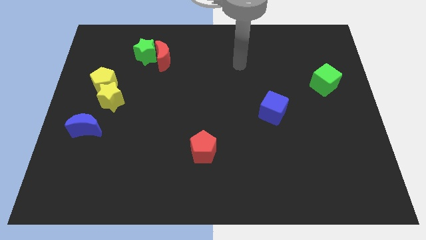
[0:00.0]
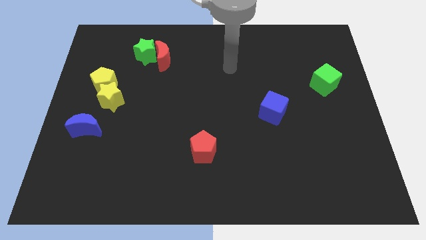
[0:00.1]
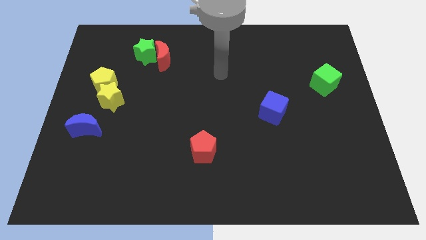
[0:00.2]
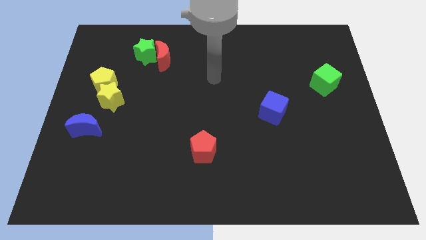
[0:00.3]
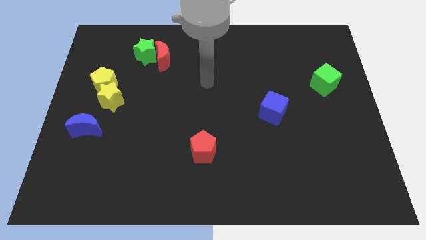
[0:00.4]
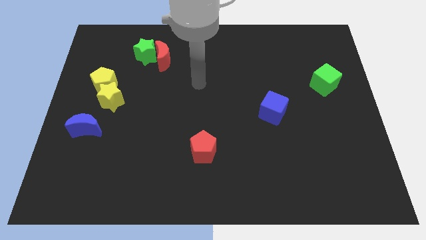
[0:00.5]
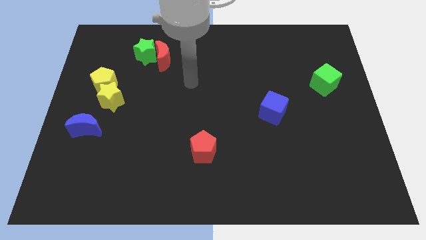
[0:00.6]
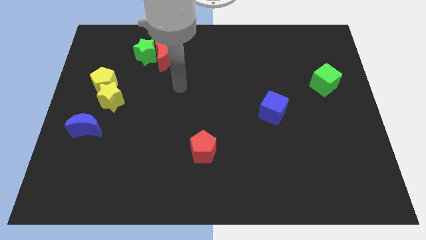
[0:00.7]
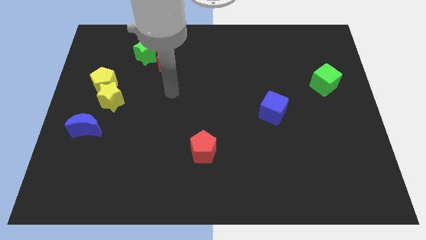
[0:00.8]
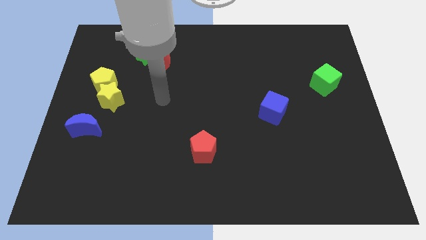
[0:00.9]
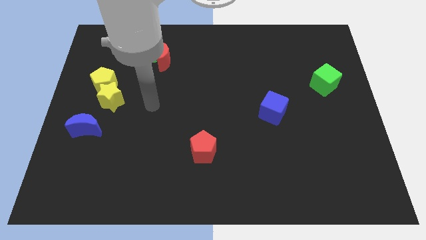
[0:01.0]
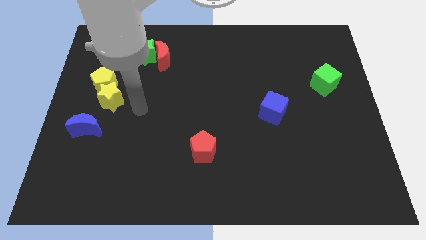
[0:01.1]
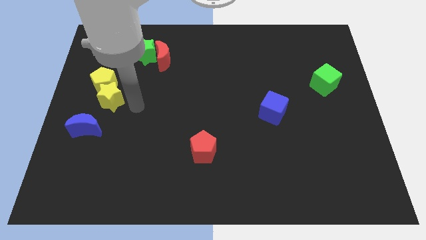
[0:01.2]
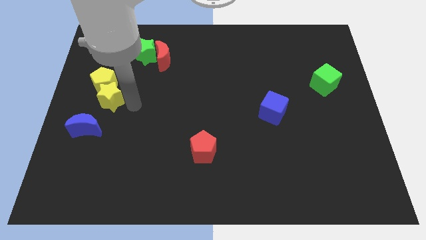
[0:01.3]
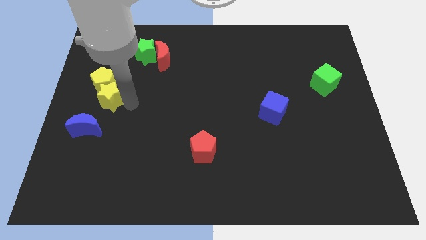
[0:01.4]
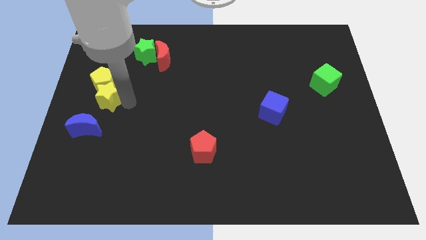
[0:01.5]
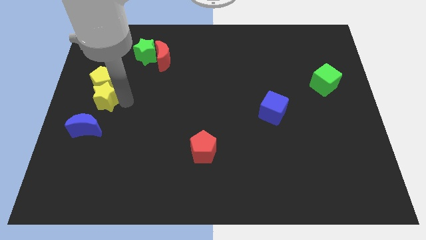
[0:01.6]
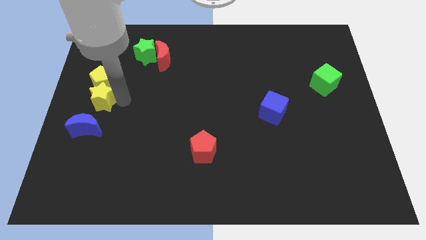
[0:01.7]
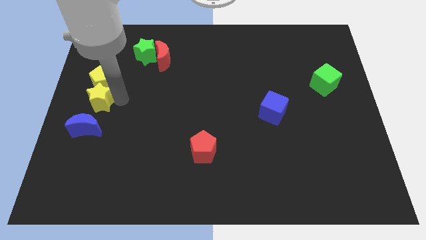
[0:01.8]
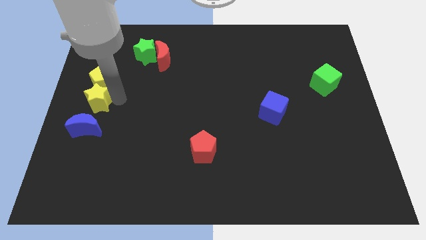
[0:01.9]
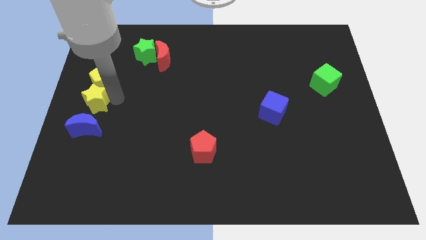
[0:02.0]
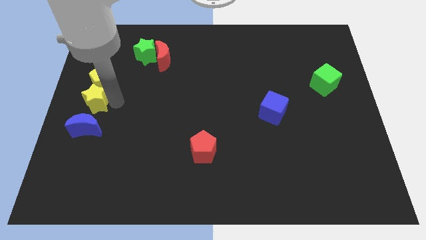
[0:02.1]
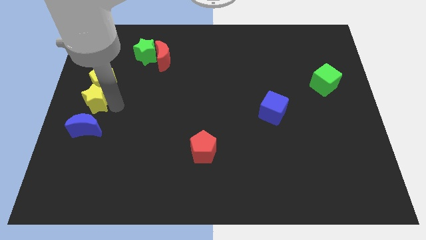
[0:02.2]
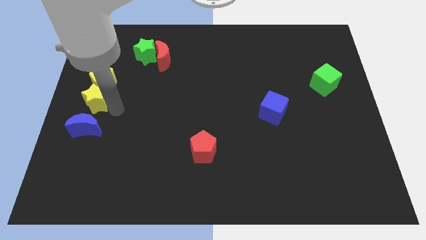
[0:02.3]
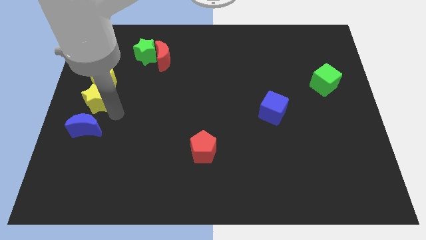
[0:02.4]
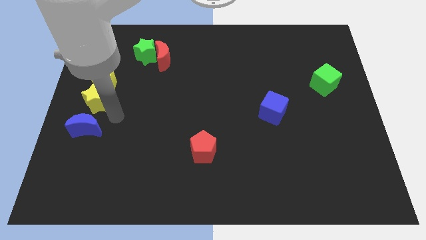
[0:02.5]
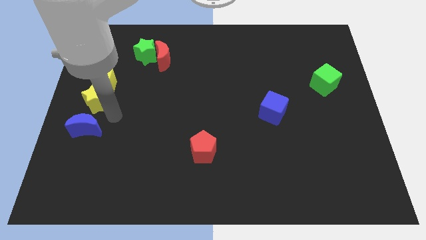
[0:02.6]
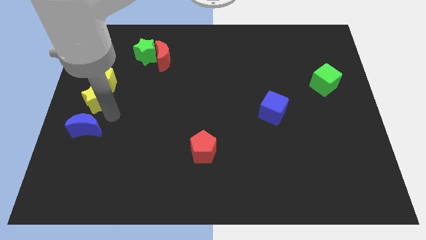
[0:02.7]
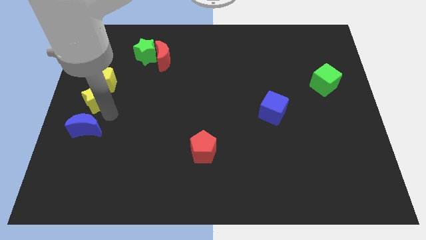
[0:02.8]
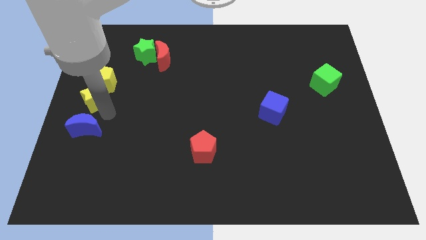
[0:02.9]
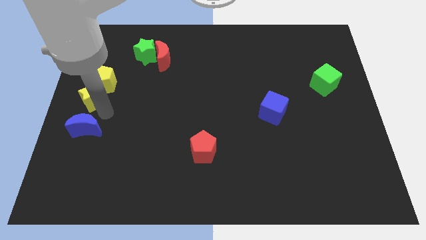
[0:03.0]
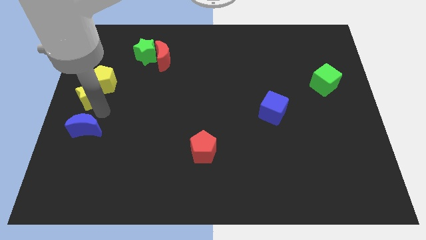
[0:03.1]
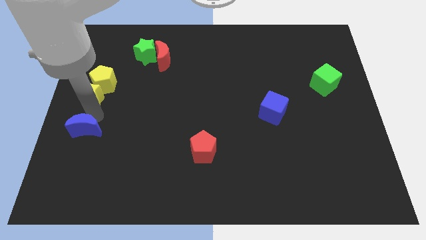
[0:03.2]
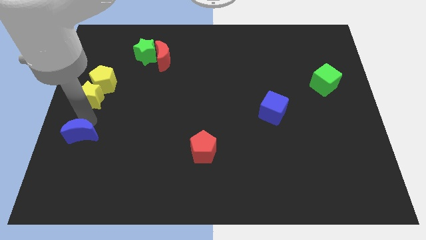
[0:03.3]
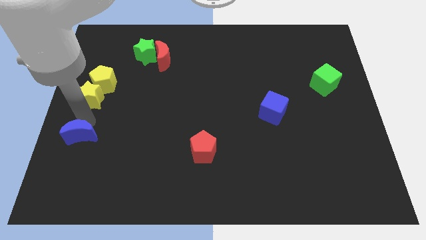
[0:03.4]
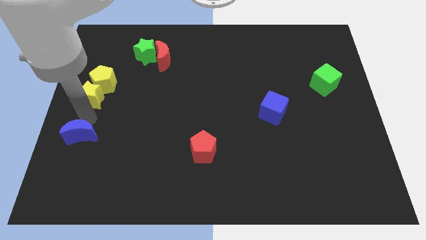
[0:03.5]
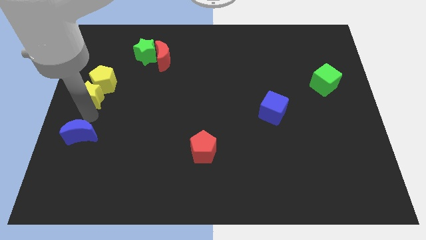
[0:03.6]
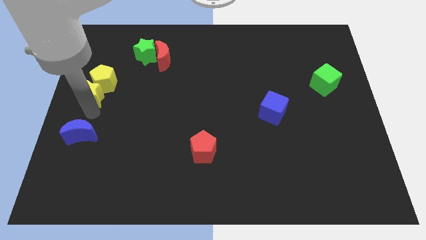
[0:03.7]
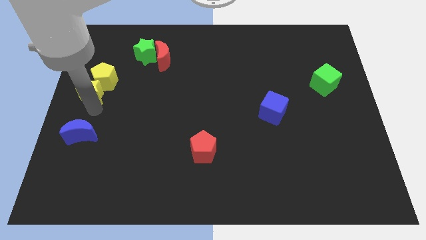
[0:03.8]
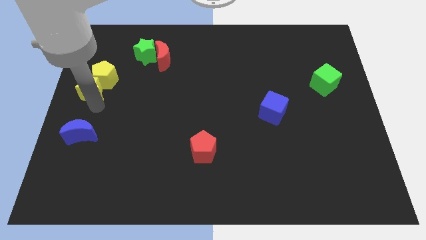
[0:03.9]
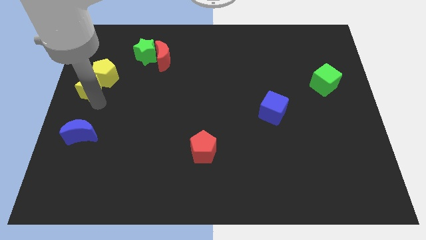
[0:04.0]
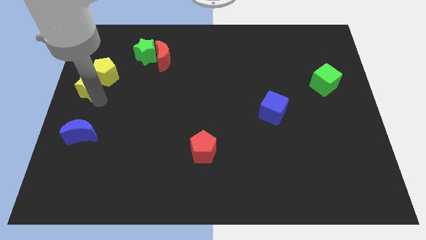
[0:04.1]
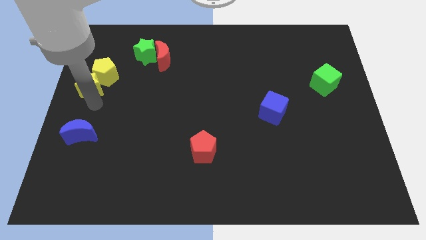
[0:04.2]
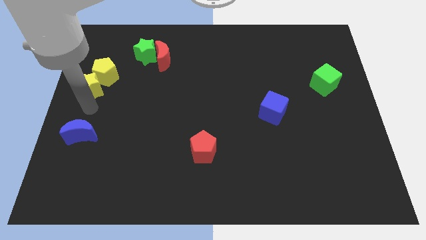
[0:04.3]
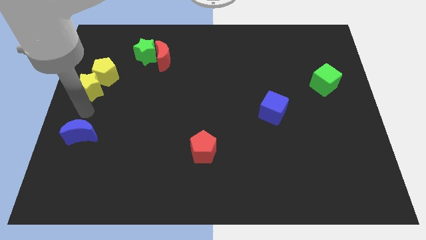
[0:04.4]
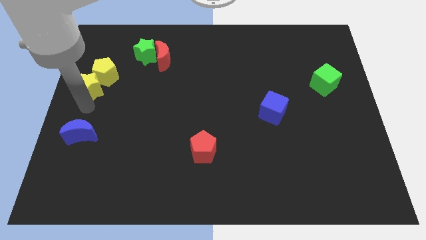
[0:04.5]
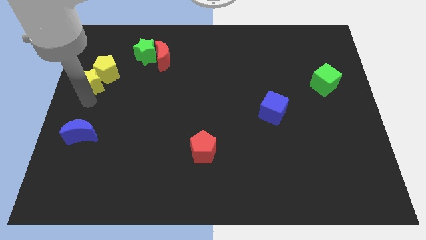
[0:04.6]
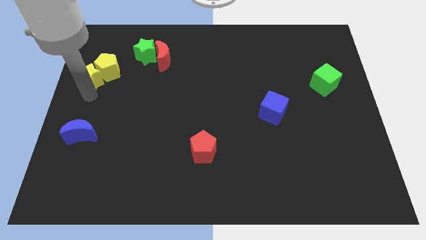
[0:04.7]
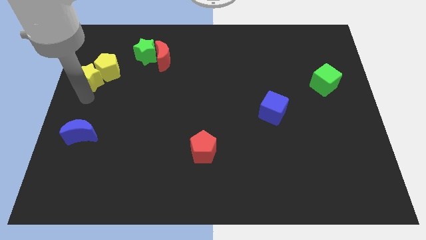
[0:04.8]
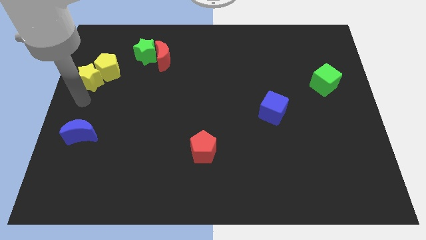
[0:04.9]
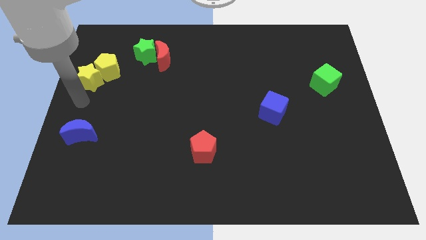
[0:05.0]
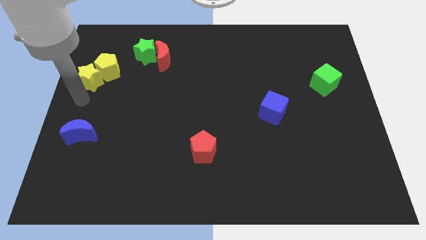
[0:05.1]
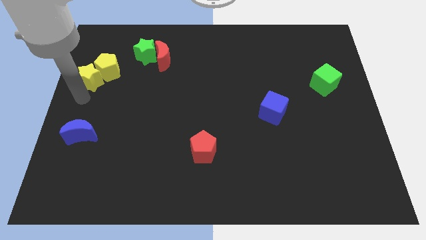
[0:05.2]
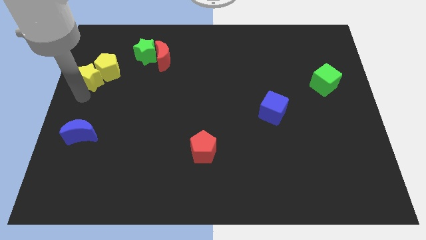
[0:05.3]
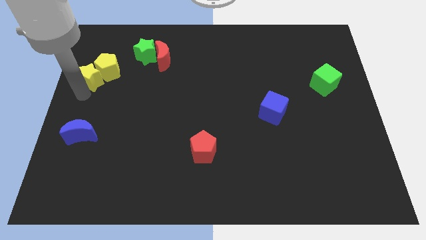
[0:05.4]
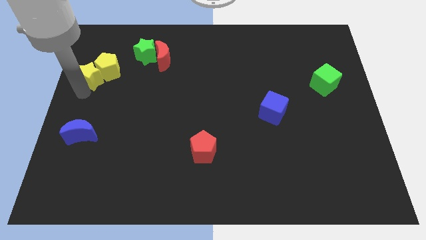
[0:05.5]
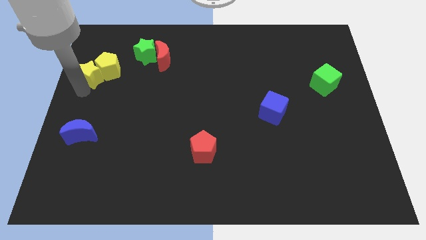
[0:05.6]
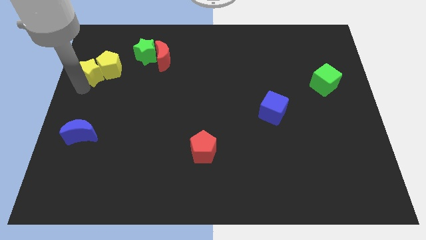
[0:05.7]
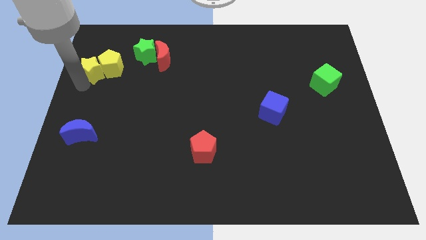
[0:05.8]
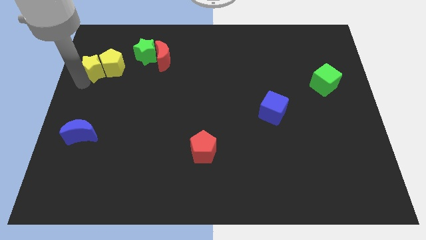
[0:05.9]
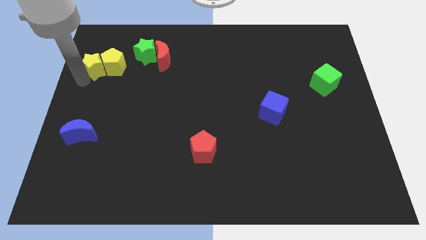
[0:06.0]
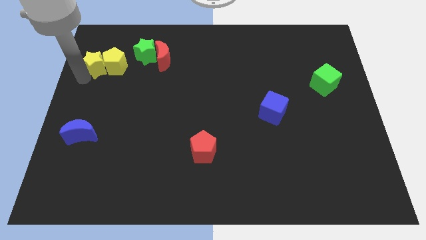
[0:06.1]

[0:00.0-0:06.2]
push the yellow star left of the green star

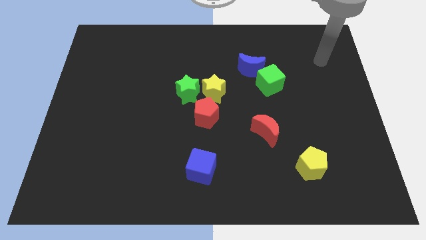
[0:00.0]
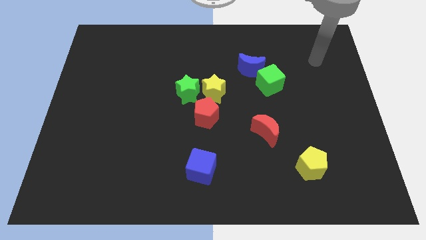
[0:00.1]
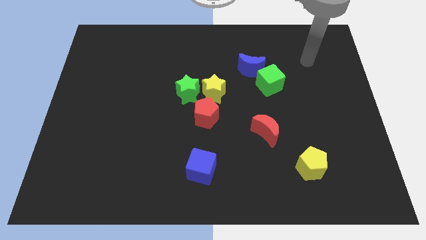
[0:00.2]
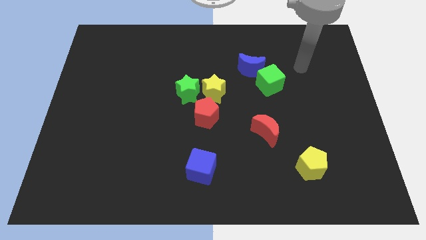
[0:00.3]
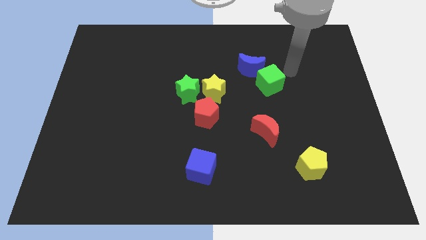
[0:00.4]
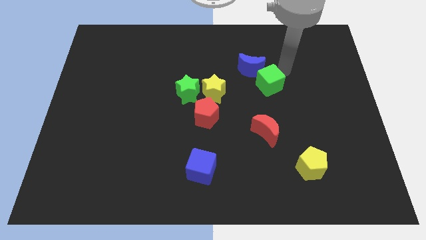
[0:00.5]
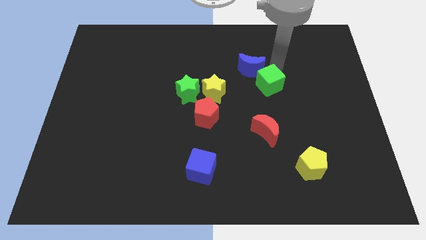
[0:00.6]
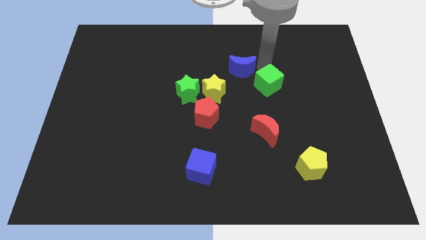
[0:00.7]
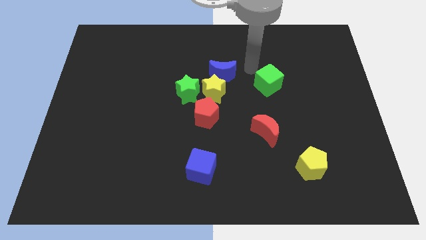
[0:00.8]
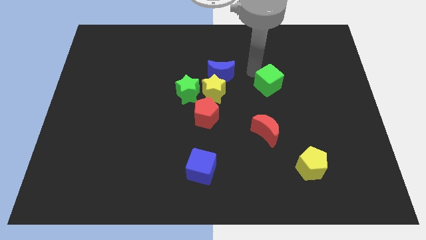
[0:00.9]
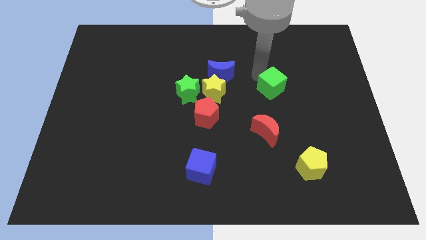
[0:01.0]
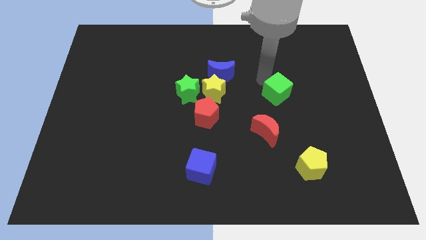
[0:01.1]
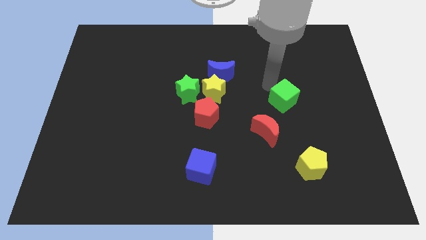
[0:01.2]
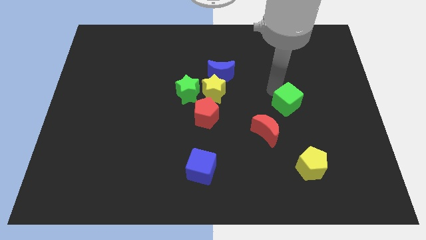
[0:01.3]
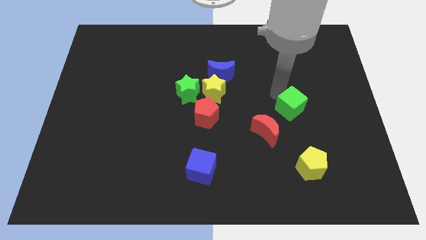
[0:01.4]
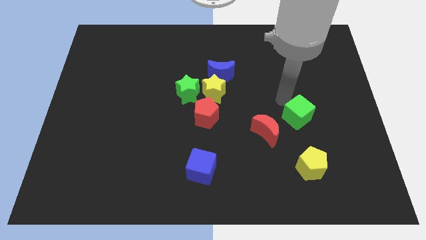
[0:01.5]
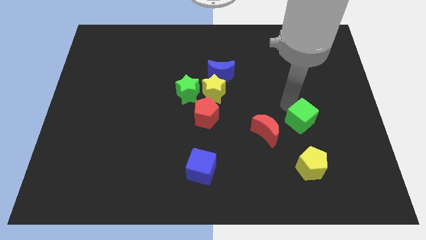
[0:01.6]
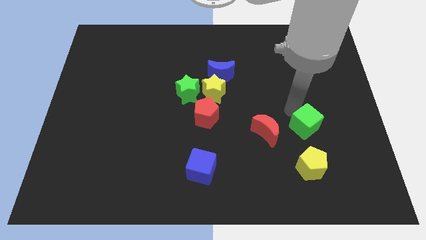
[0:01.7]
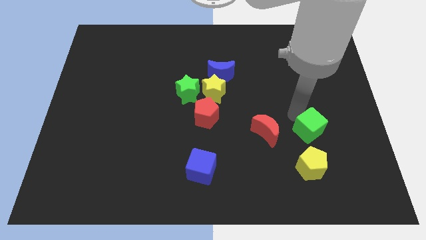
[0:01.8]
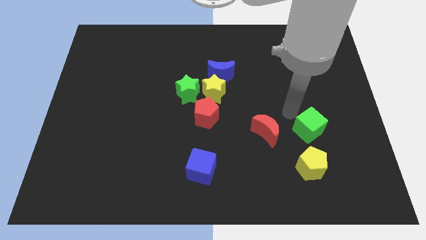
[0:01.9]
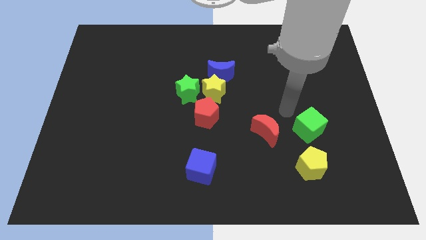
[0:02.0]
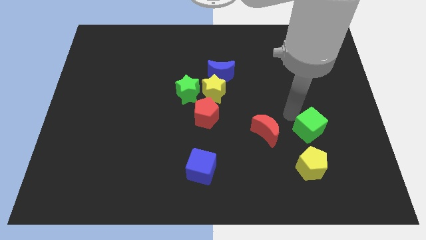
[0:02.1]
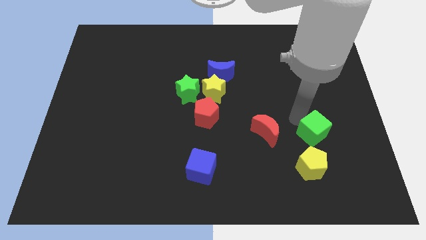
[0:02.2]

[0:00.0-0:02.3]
slide the green cube to the top right of the yellow pentagon
